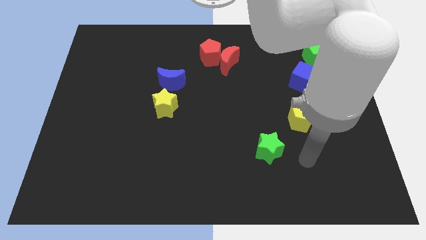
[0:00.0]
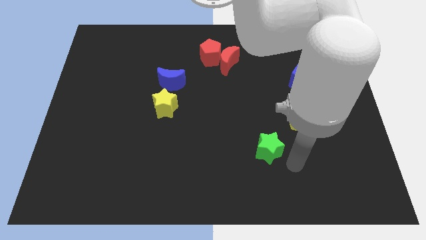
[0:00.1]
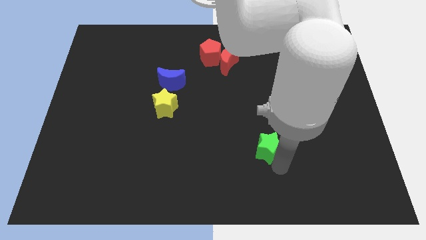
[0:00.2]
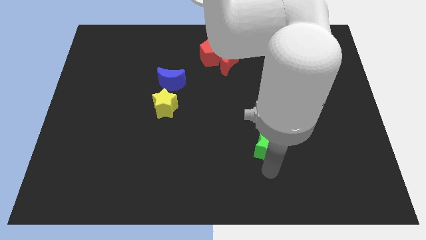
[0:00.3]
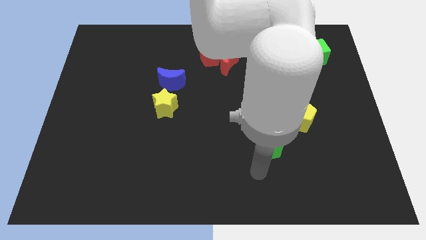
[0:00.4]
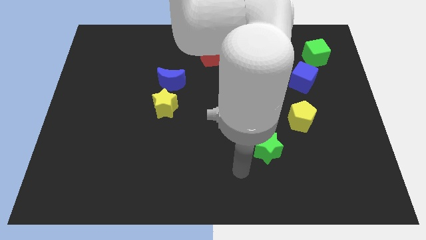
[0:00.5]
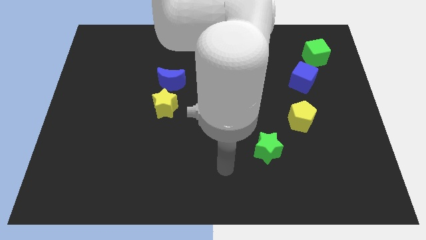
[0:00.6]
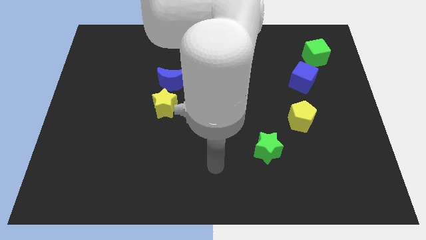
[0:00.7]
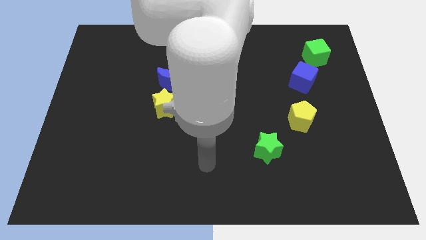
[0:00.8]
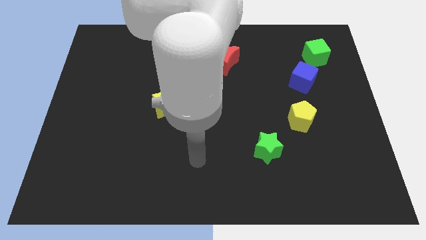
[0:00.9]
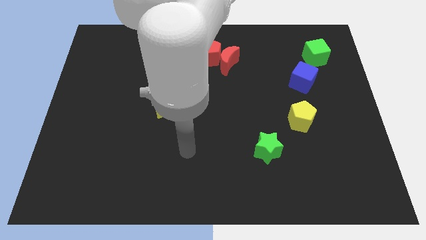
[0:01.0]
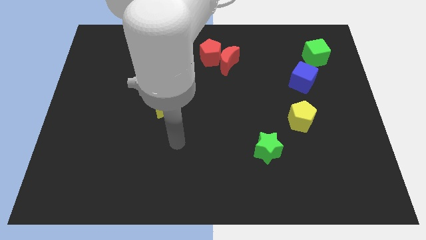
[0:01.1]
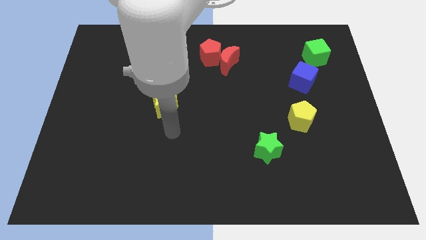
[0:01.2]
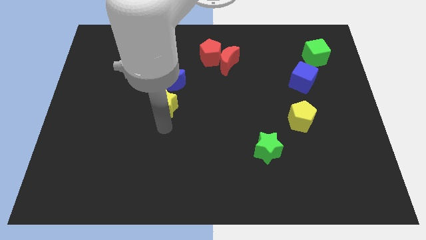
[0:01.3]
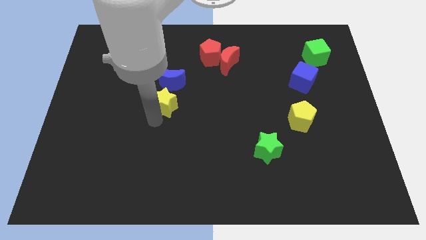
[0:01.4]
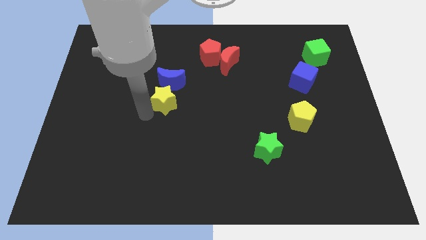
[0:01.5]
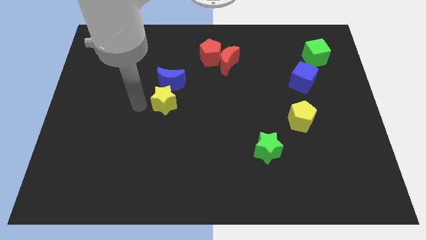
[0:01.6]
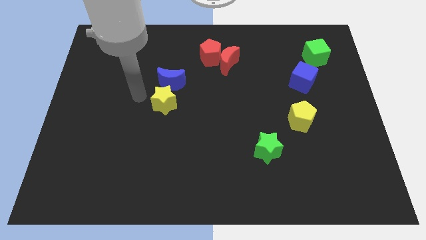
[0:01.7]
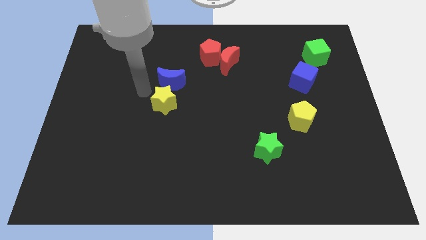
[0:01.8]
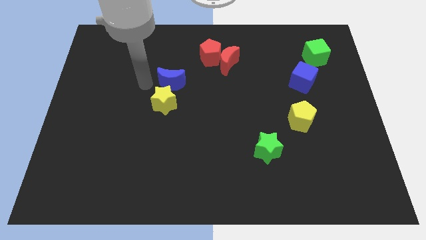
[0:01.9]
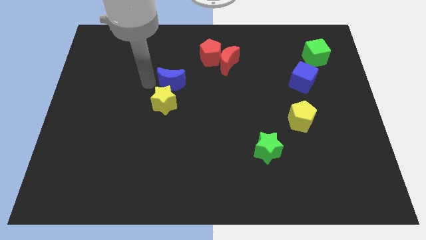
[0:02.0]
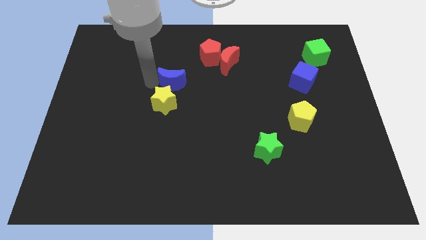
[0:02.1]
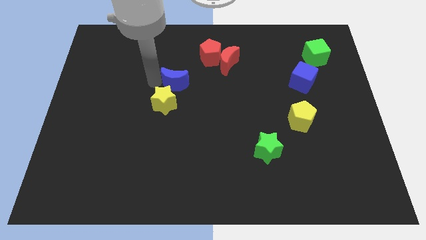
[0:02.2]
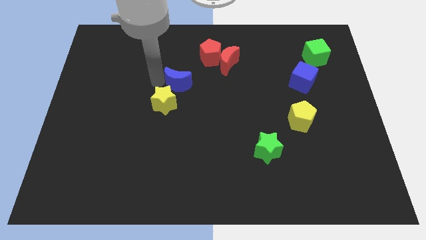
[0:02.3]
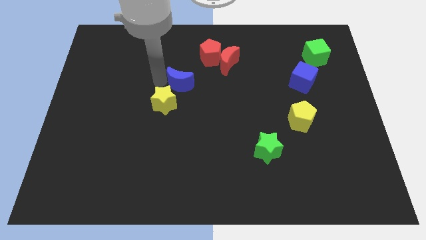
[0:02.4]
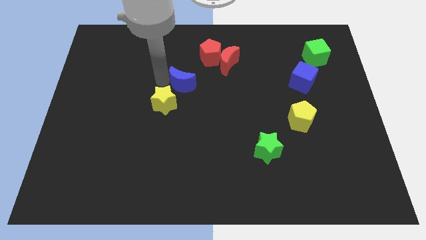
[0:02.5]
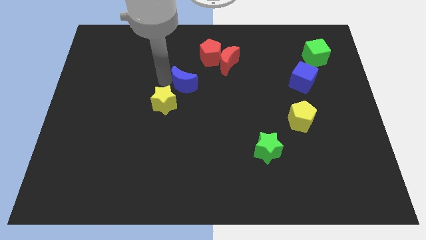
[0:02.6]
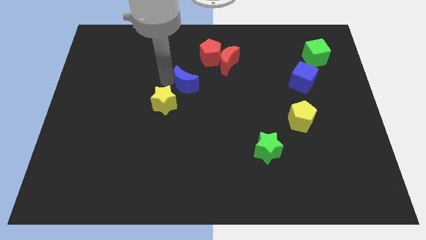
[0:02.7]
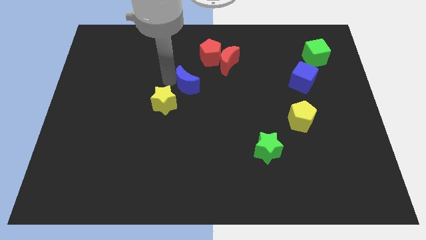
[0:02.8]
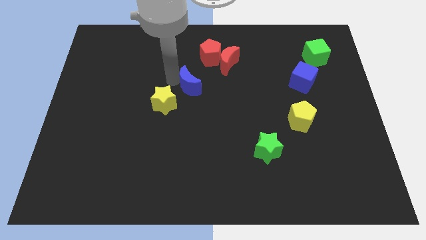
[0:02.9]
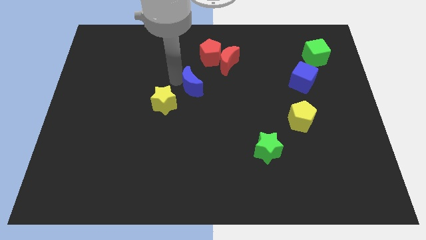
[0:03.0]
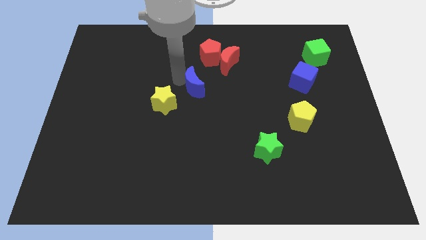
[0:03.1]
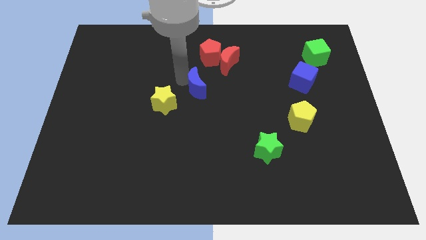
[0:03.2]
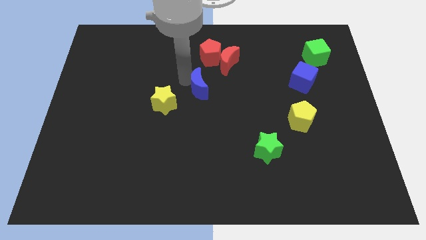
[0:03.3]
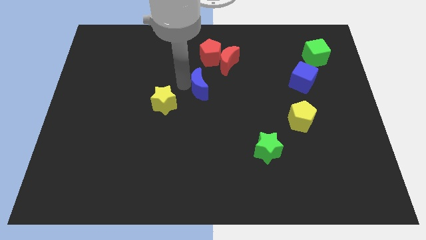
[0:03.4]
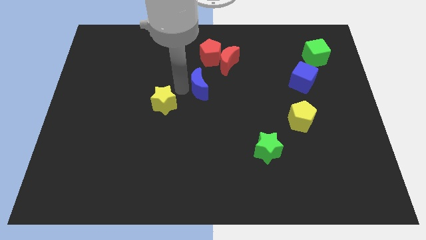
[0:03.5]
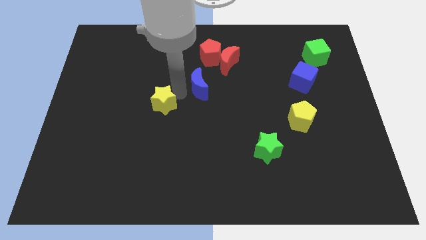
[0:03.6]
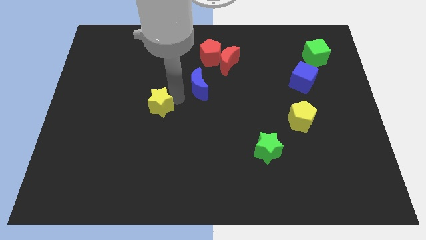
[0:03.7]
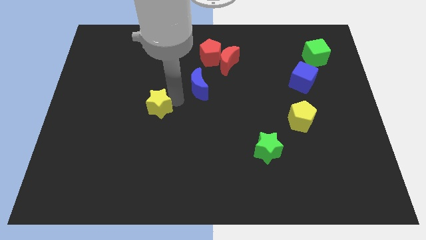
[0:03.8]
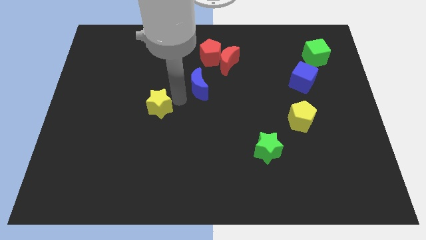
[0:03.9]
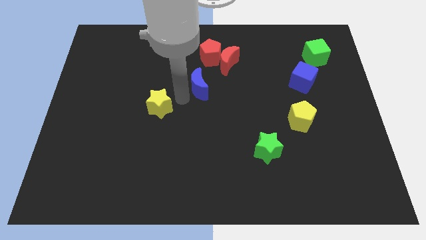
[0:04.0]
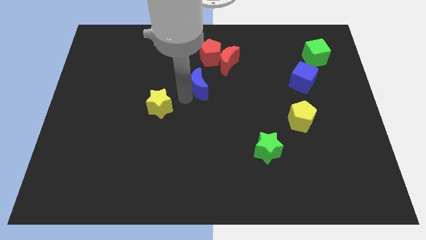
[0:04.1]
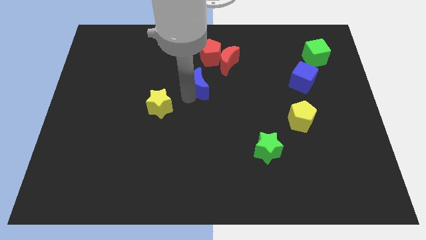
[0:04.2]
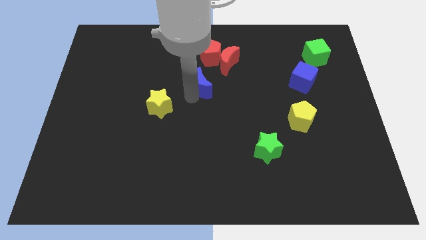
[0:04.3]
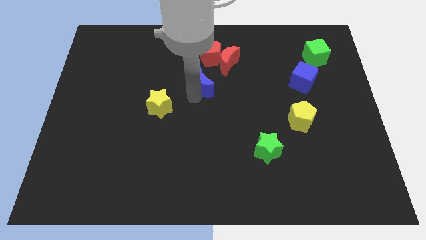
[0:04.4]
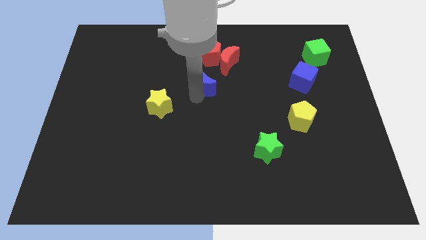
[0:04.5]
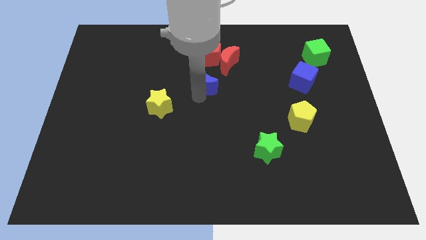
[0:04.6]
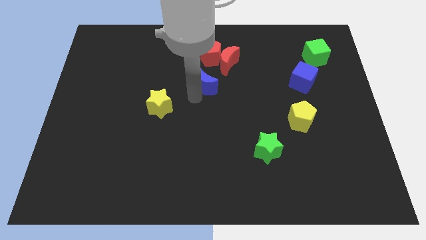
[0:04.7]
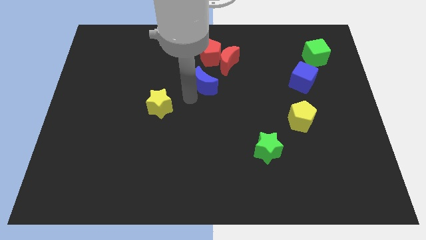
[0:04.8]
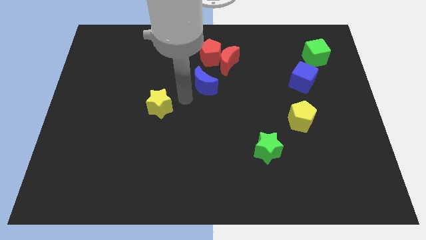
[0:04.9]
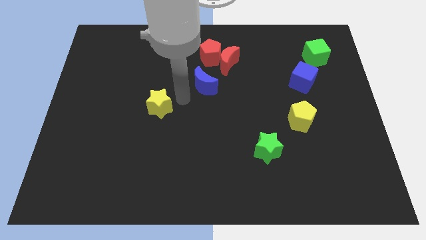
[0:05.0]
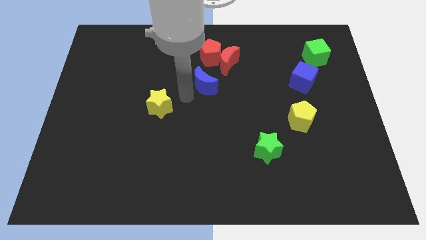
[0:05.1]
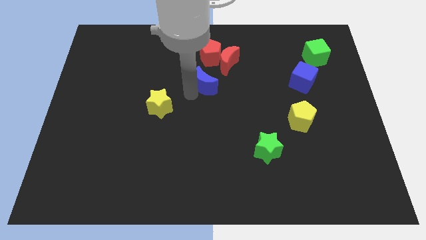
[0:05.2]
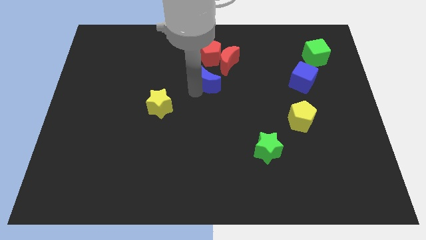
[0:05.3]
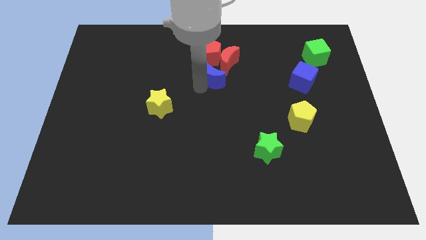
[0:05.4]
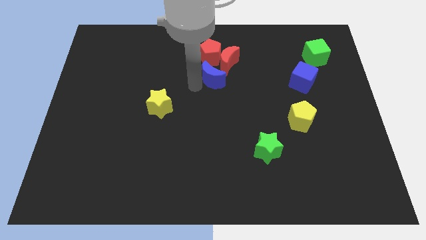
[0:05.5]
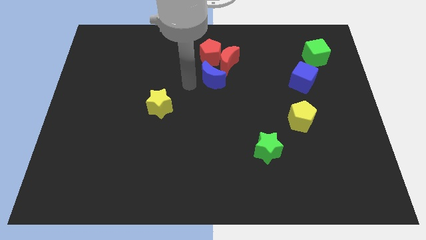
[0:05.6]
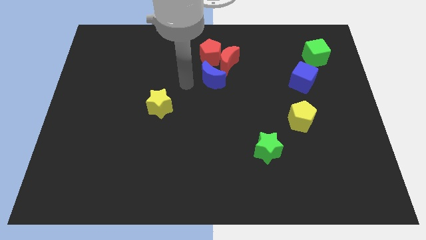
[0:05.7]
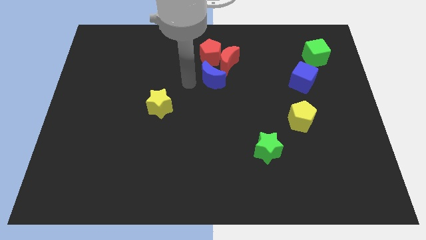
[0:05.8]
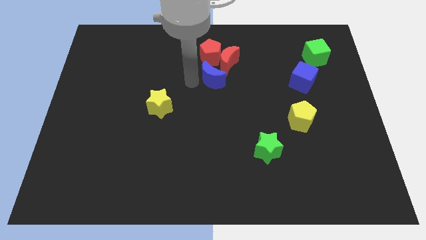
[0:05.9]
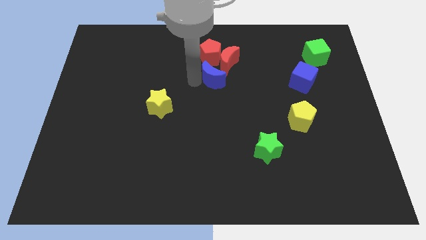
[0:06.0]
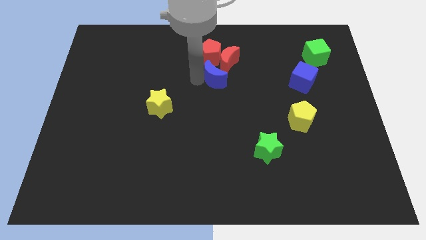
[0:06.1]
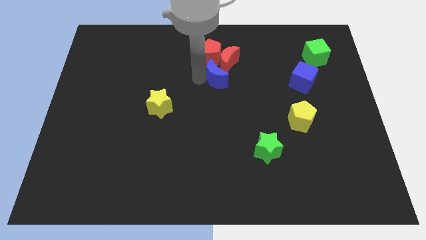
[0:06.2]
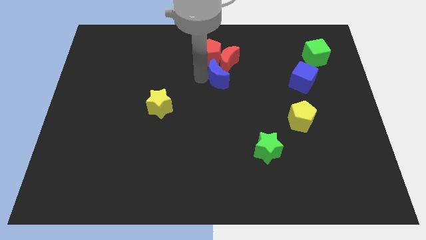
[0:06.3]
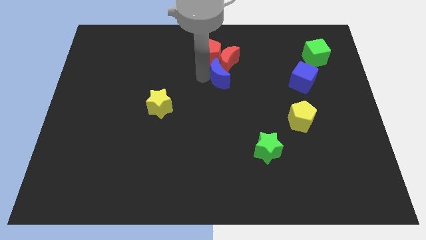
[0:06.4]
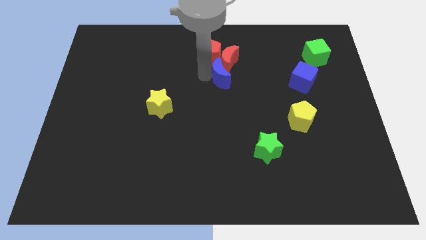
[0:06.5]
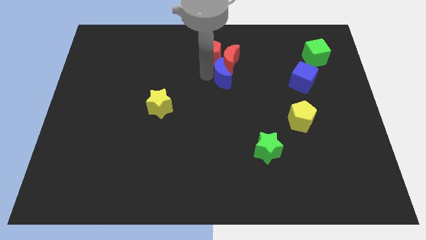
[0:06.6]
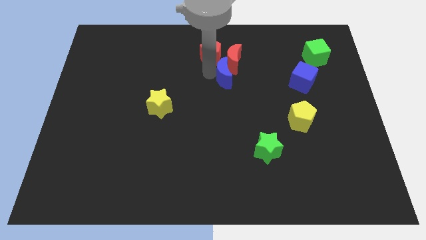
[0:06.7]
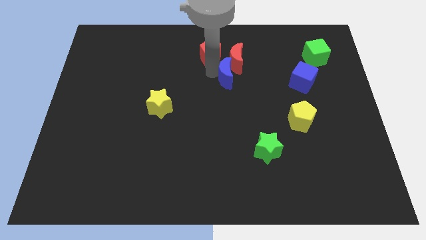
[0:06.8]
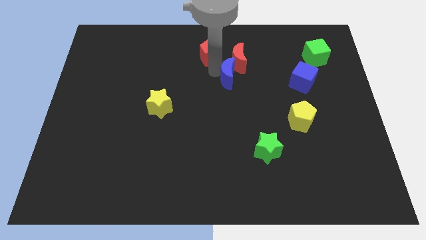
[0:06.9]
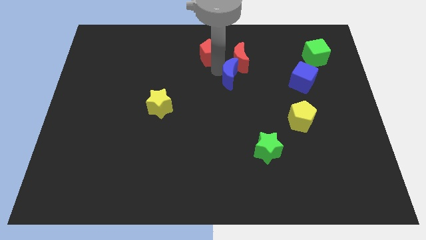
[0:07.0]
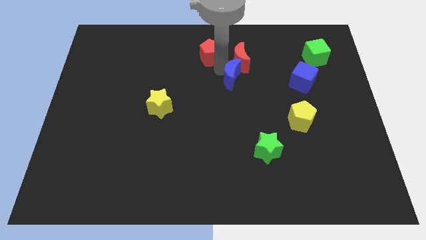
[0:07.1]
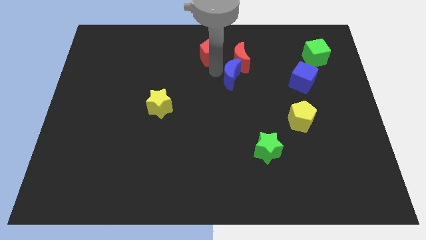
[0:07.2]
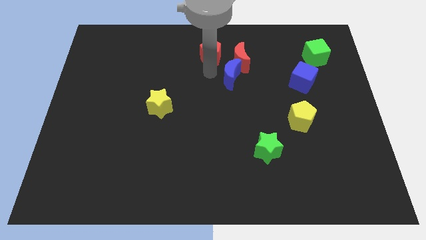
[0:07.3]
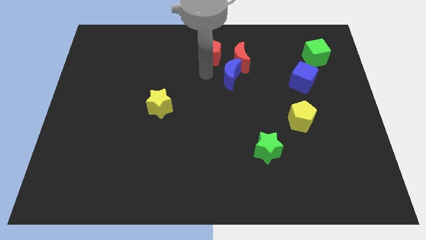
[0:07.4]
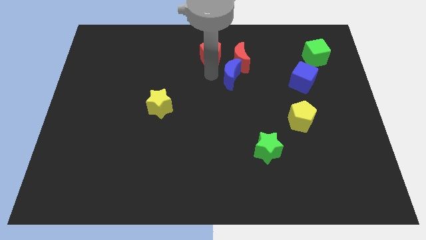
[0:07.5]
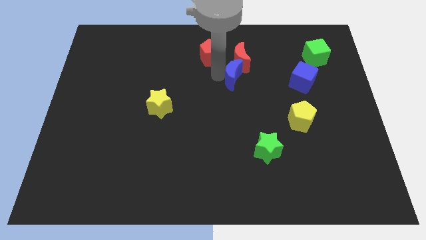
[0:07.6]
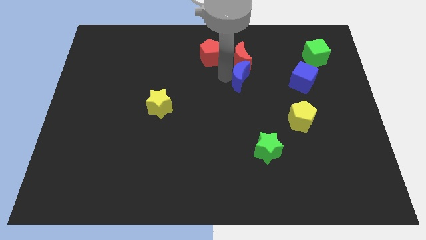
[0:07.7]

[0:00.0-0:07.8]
slide the blue moon left of the blue cube
